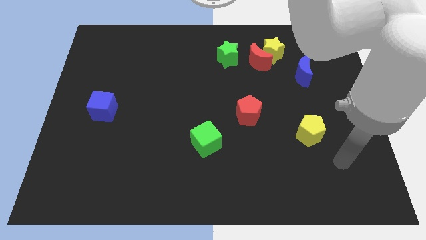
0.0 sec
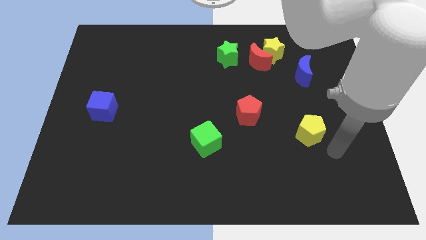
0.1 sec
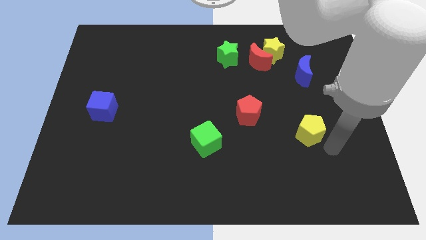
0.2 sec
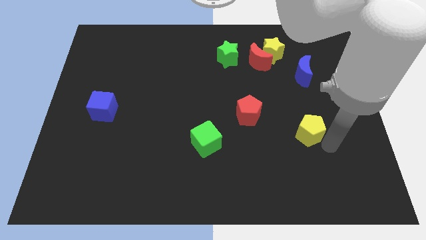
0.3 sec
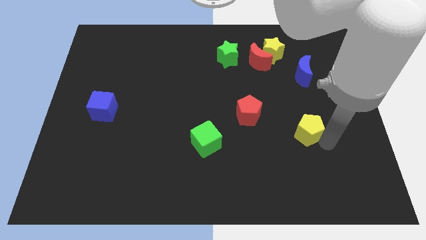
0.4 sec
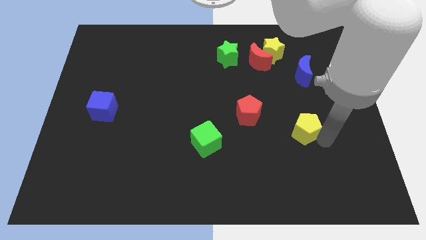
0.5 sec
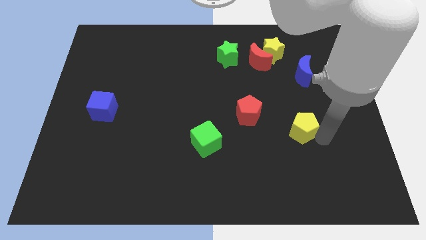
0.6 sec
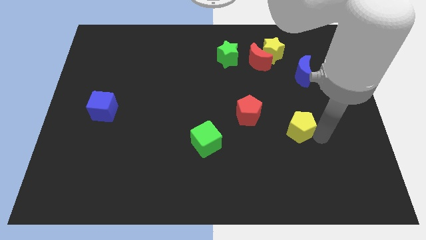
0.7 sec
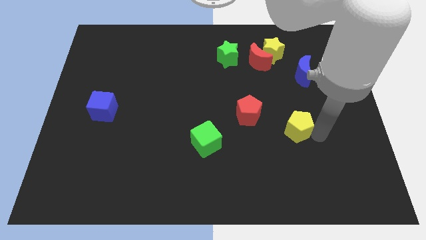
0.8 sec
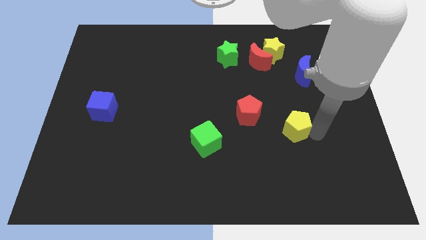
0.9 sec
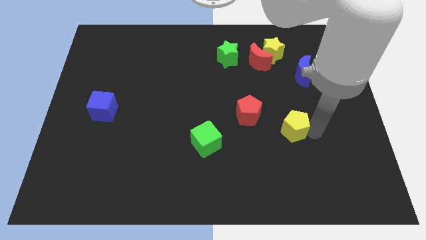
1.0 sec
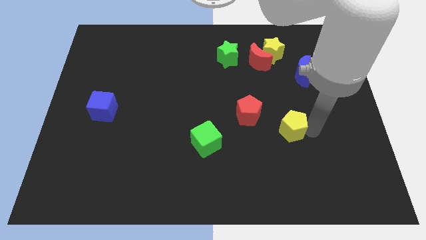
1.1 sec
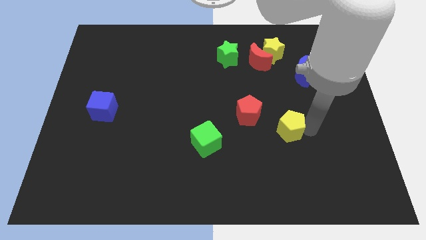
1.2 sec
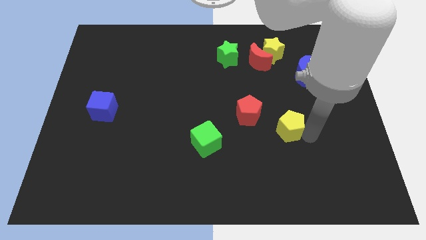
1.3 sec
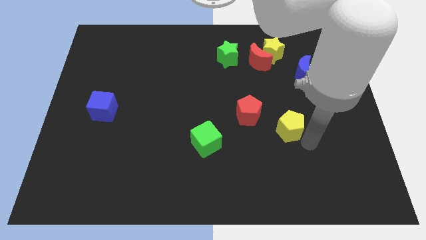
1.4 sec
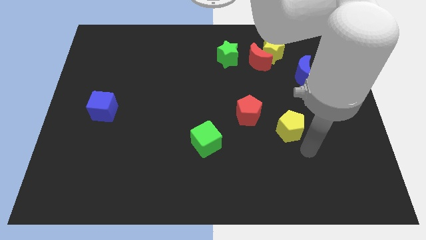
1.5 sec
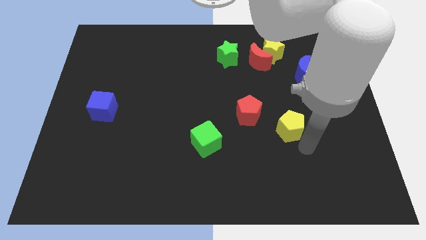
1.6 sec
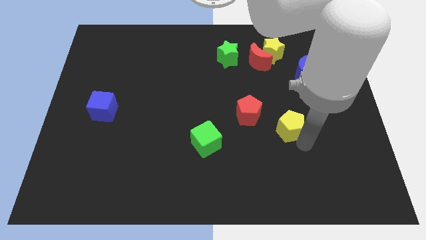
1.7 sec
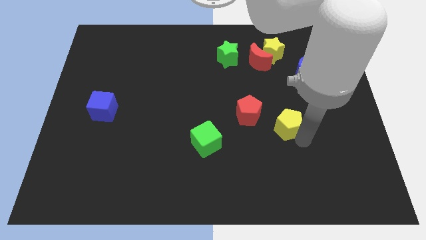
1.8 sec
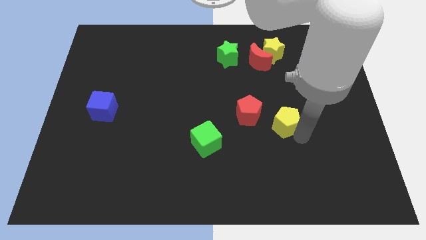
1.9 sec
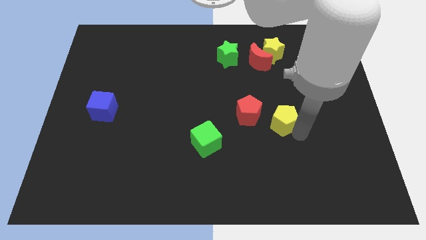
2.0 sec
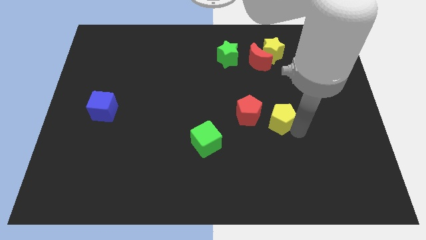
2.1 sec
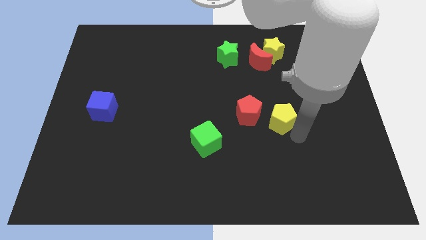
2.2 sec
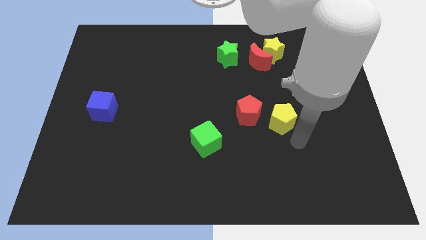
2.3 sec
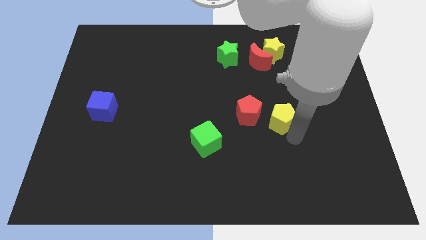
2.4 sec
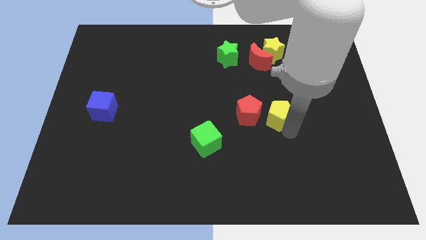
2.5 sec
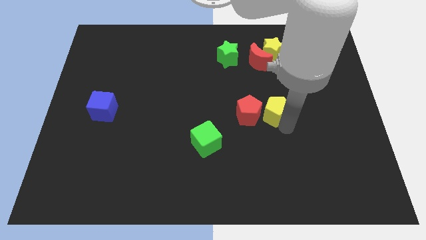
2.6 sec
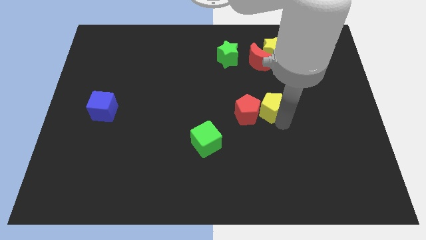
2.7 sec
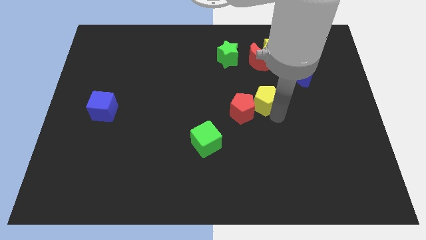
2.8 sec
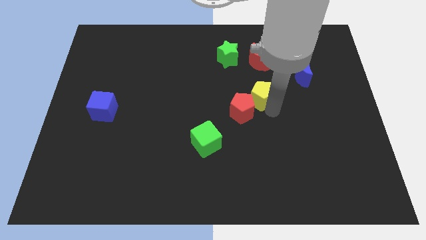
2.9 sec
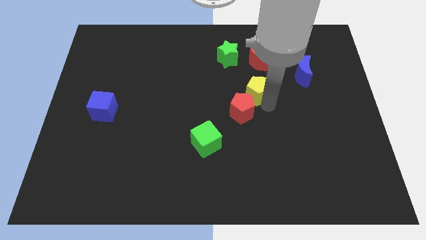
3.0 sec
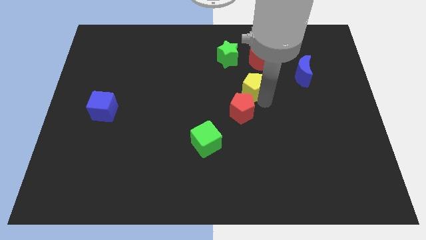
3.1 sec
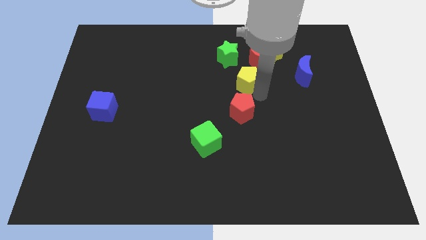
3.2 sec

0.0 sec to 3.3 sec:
slide the yellow pentagon up and then to the left

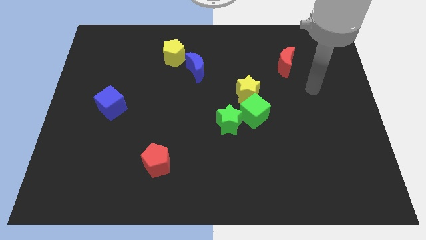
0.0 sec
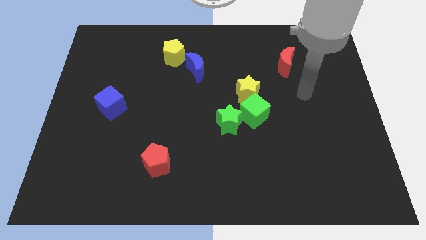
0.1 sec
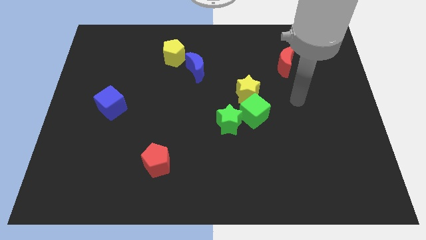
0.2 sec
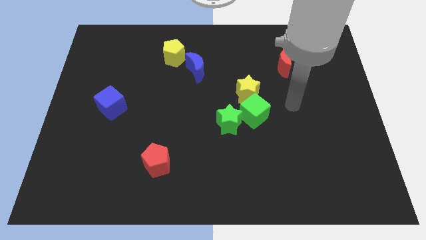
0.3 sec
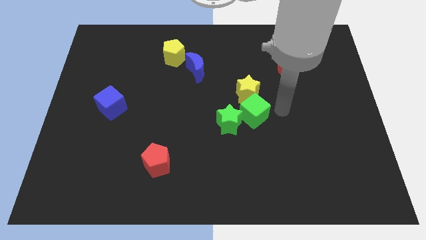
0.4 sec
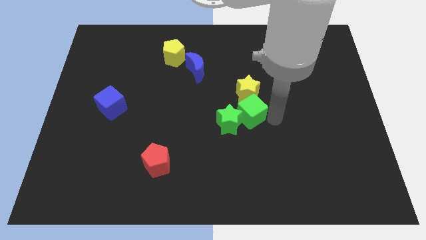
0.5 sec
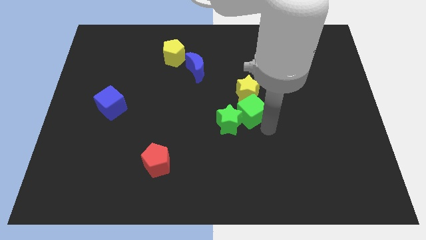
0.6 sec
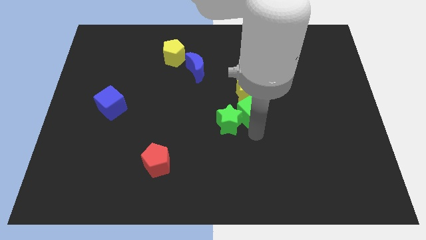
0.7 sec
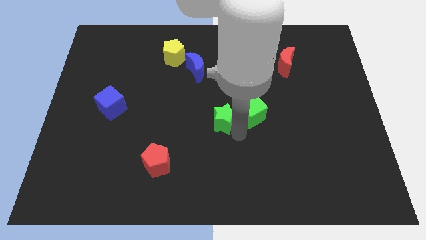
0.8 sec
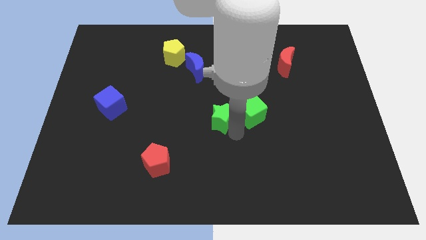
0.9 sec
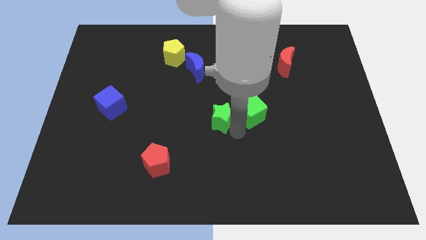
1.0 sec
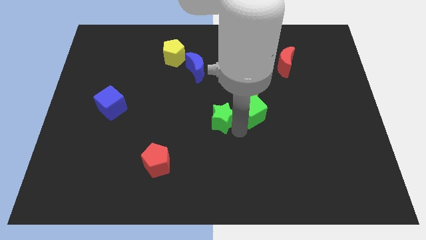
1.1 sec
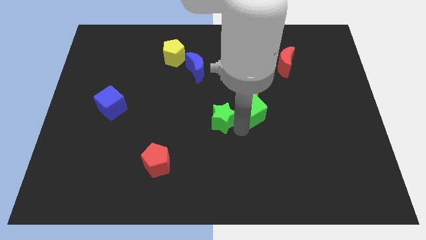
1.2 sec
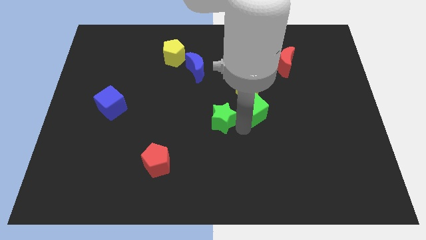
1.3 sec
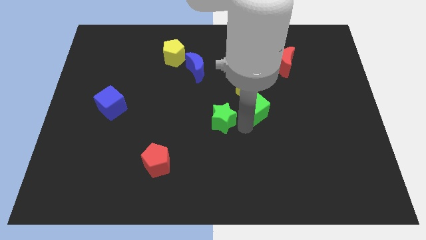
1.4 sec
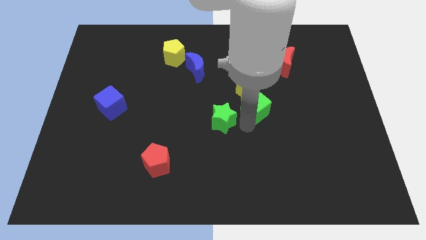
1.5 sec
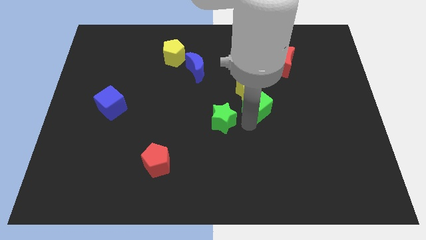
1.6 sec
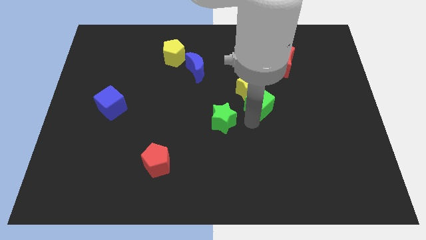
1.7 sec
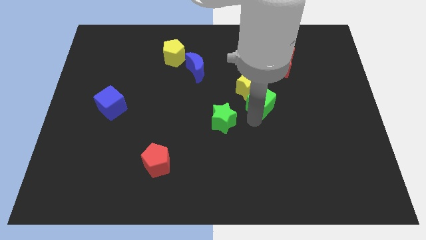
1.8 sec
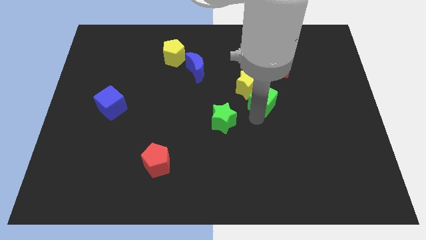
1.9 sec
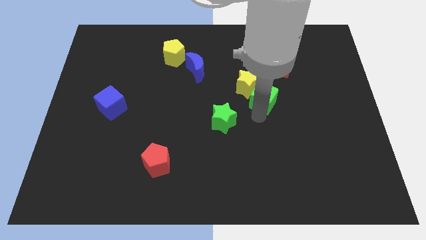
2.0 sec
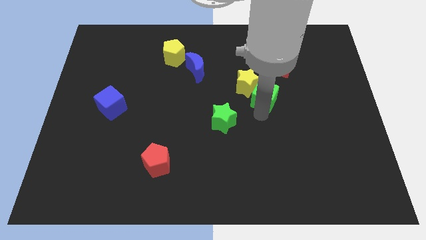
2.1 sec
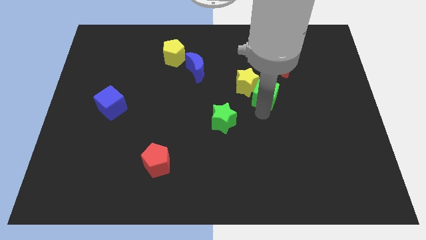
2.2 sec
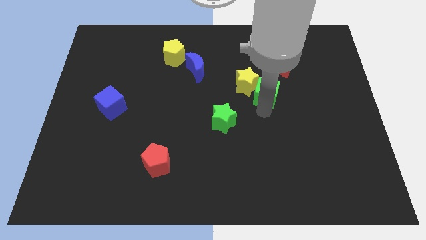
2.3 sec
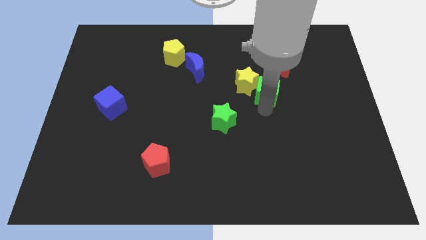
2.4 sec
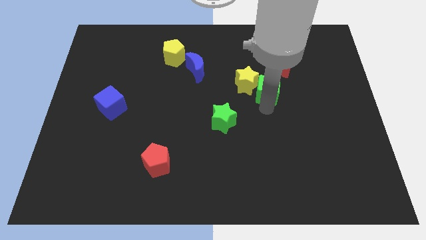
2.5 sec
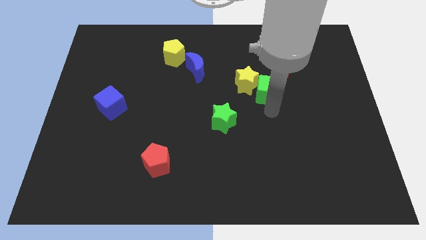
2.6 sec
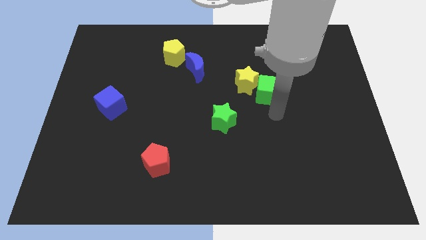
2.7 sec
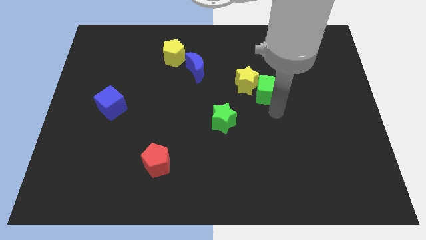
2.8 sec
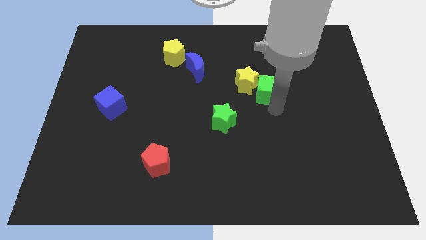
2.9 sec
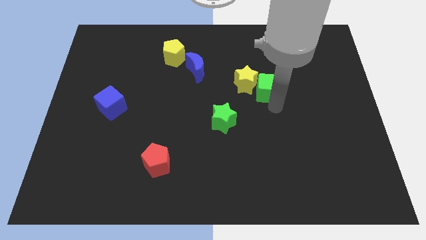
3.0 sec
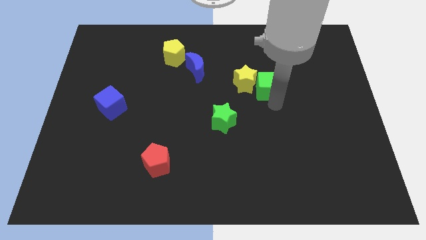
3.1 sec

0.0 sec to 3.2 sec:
slide the green cube upwards a little

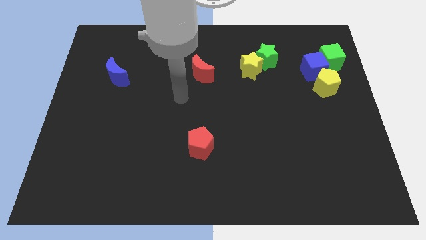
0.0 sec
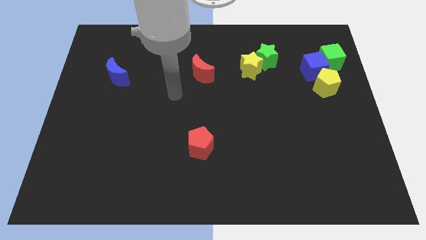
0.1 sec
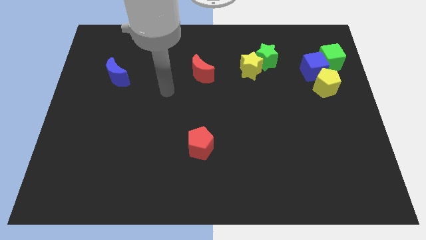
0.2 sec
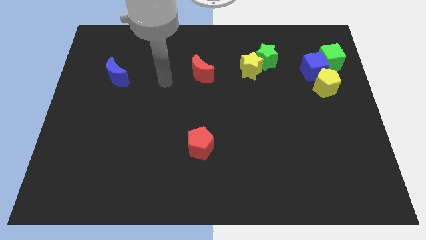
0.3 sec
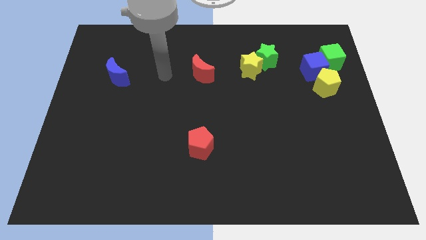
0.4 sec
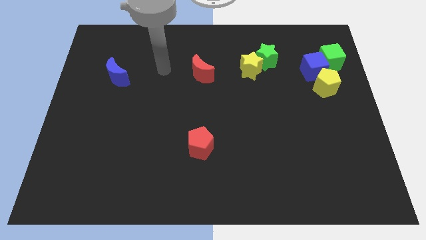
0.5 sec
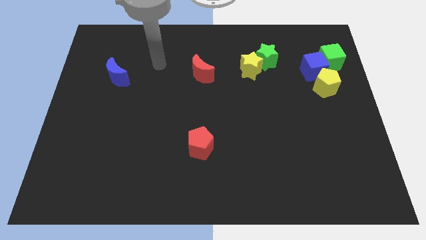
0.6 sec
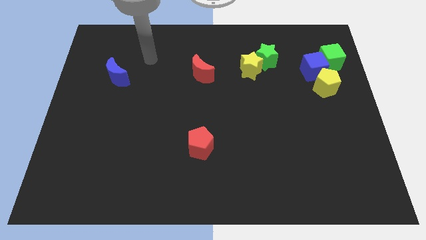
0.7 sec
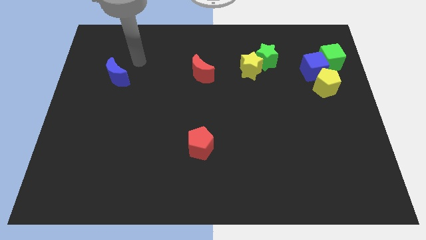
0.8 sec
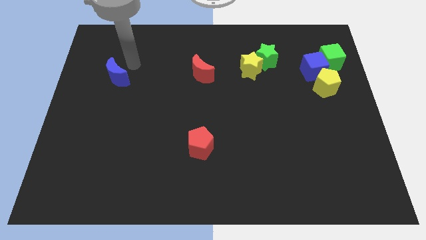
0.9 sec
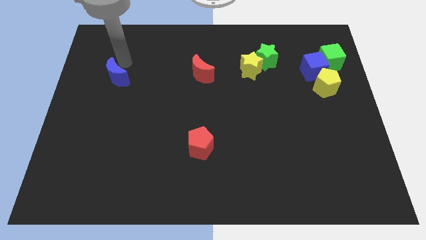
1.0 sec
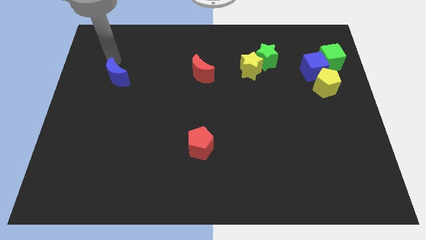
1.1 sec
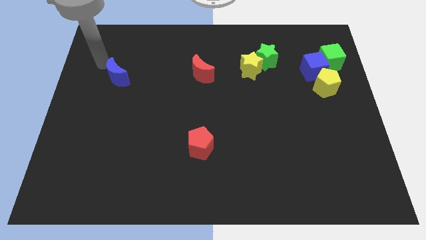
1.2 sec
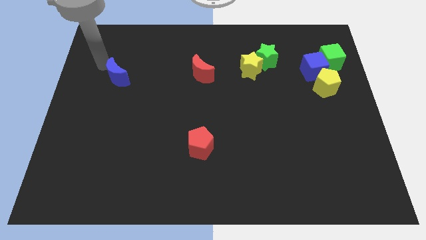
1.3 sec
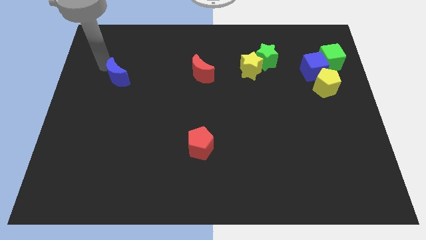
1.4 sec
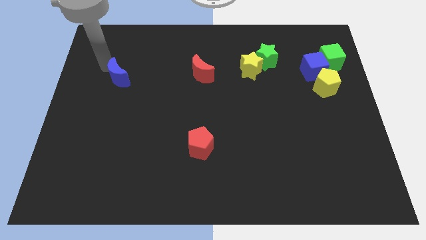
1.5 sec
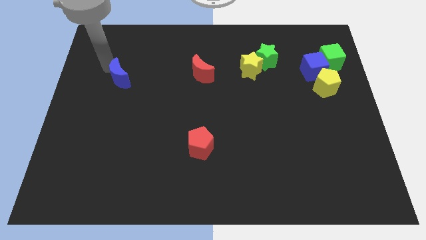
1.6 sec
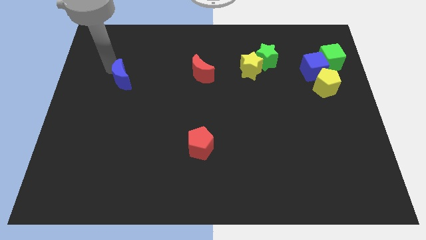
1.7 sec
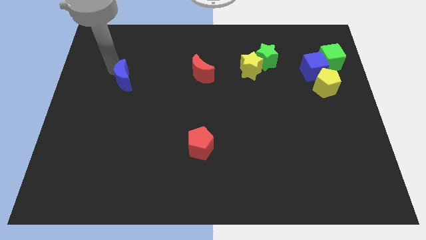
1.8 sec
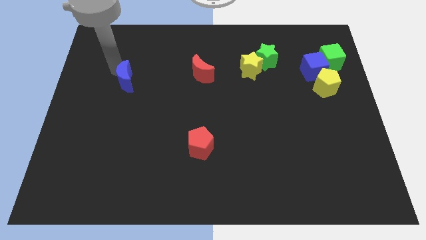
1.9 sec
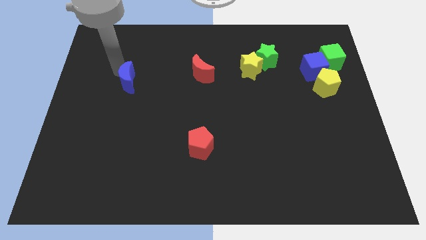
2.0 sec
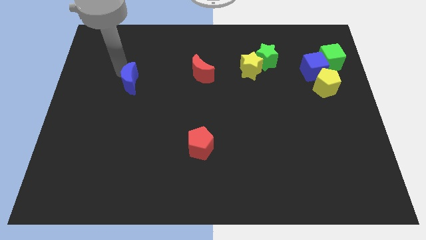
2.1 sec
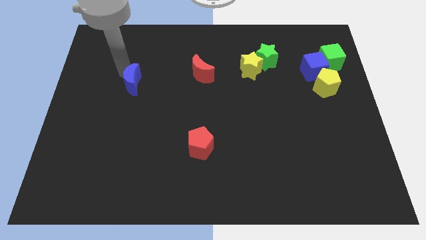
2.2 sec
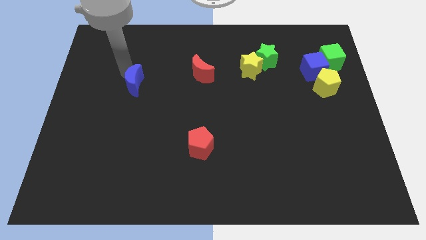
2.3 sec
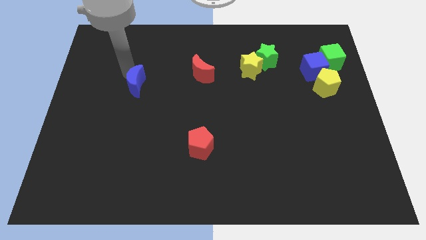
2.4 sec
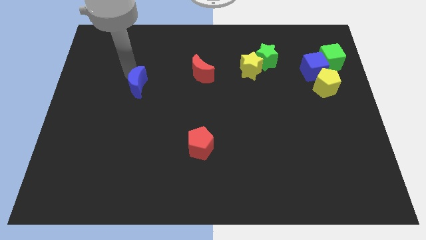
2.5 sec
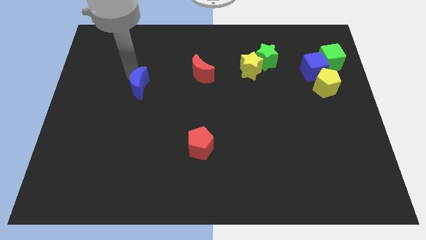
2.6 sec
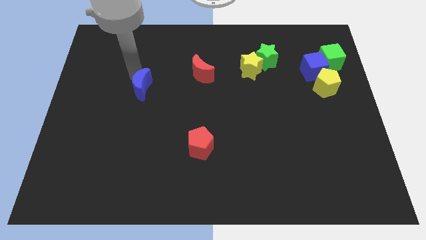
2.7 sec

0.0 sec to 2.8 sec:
slide the blue moon downwards and to the right a little bit
